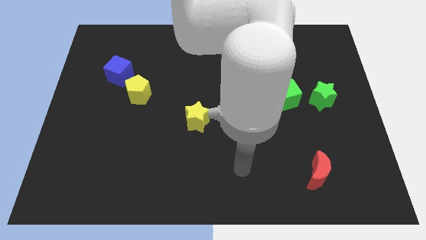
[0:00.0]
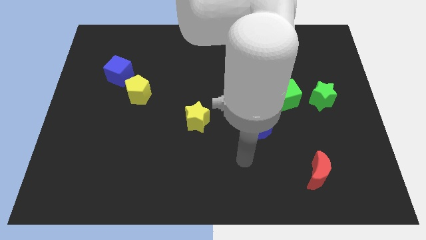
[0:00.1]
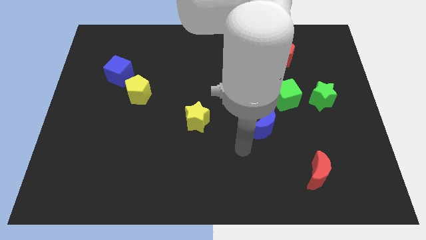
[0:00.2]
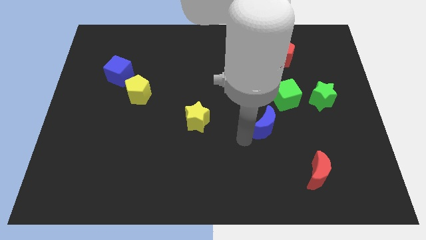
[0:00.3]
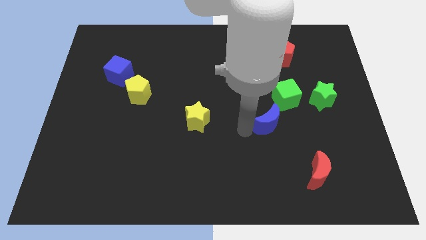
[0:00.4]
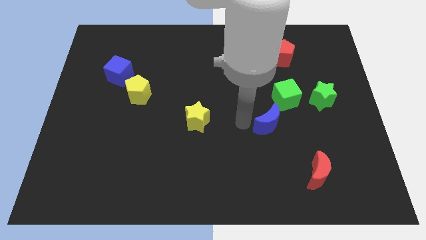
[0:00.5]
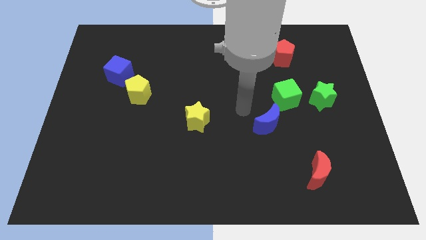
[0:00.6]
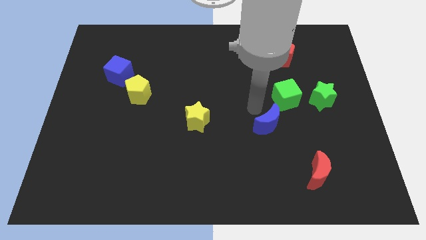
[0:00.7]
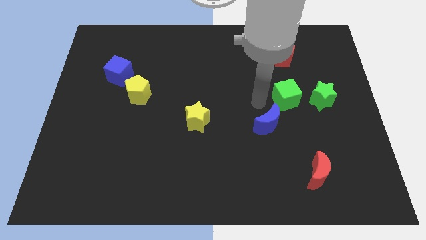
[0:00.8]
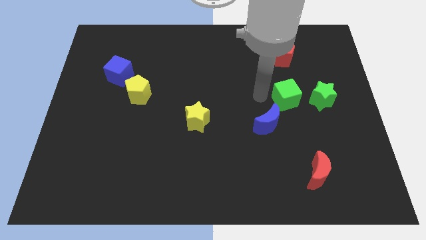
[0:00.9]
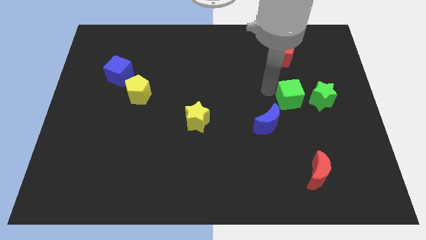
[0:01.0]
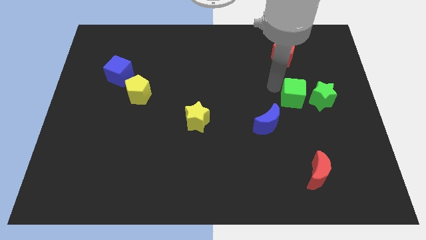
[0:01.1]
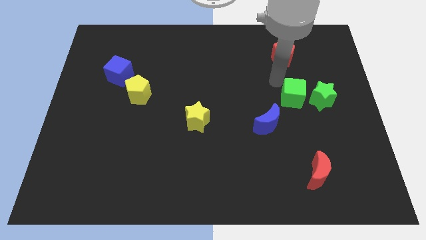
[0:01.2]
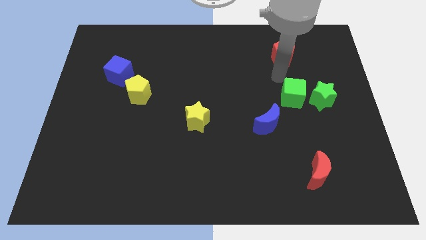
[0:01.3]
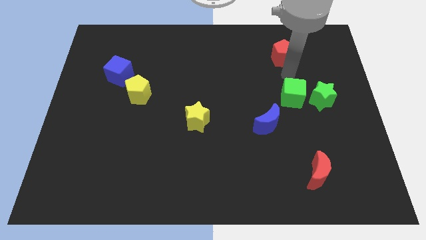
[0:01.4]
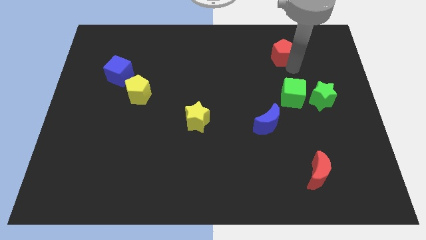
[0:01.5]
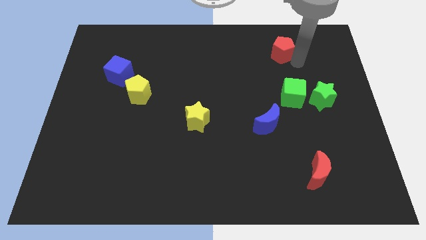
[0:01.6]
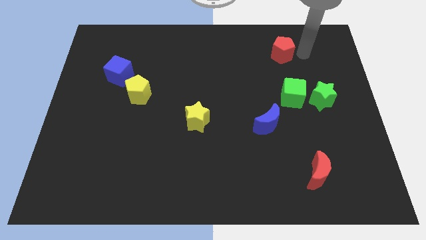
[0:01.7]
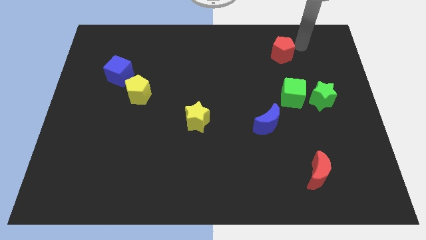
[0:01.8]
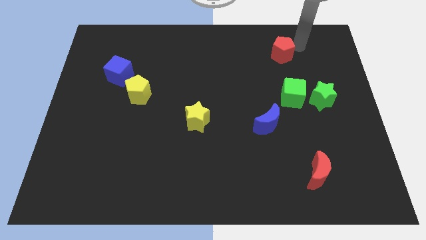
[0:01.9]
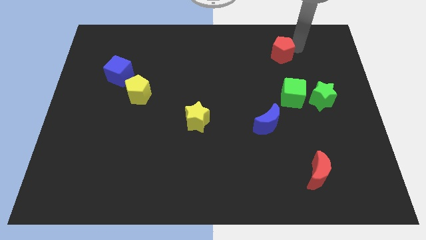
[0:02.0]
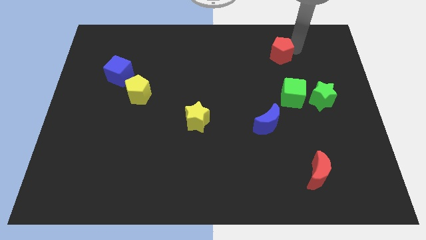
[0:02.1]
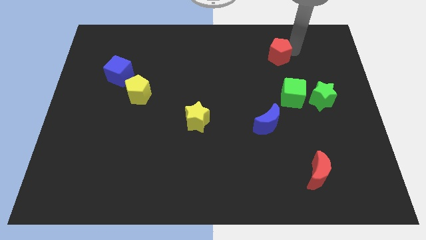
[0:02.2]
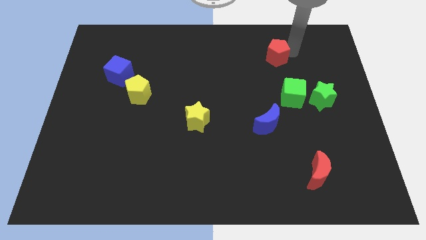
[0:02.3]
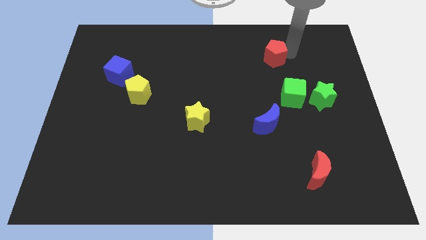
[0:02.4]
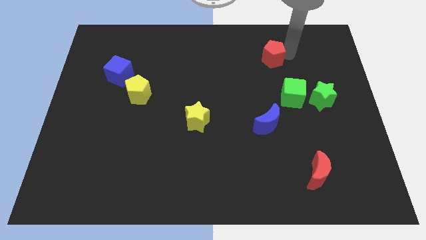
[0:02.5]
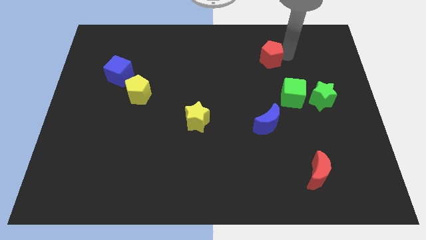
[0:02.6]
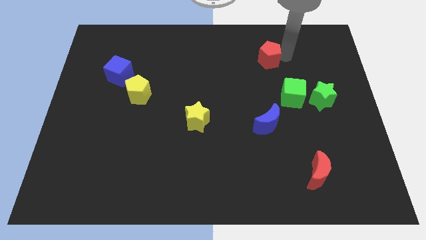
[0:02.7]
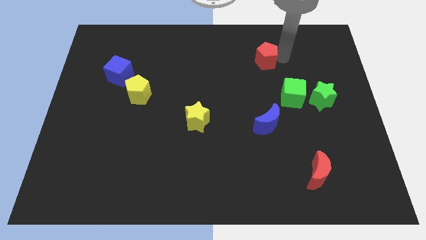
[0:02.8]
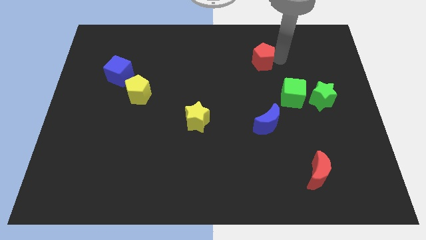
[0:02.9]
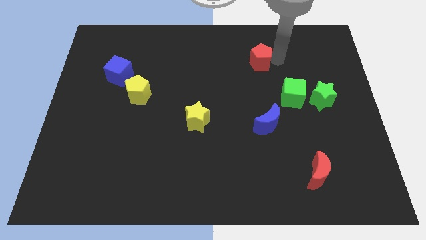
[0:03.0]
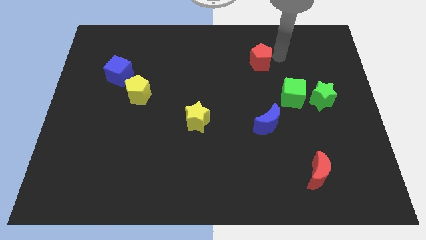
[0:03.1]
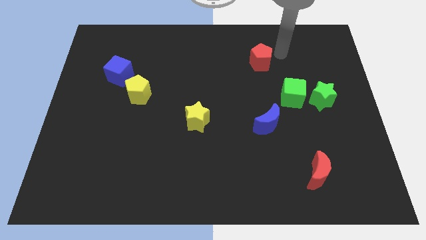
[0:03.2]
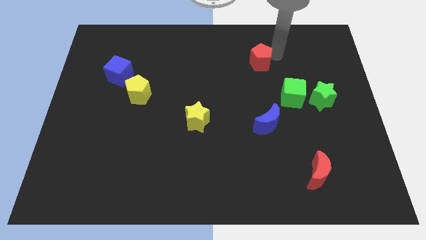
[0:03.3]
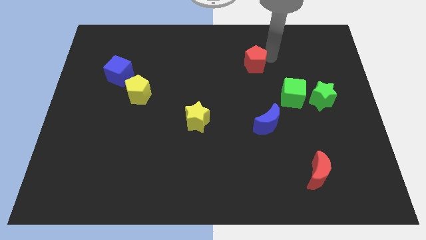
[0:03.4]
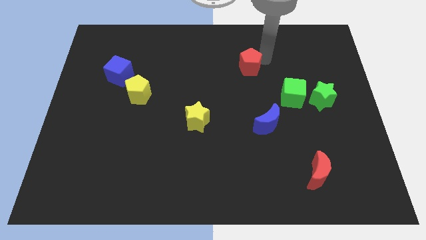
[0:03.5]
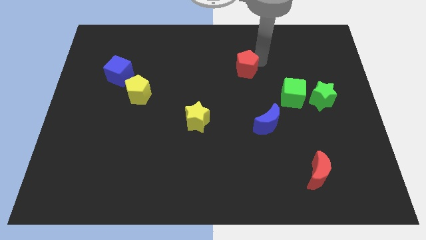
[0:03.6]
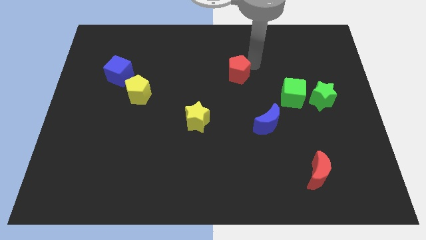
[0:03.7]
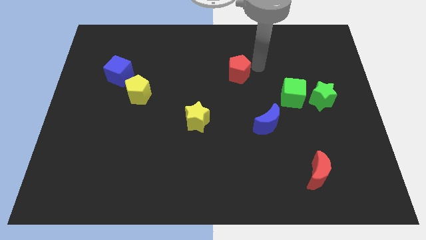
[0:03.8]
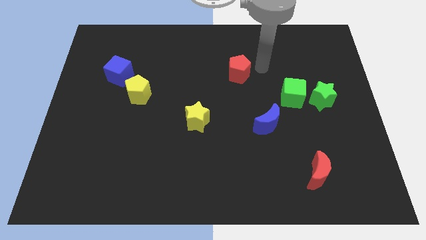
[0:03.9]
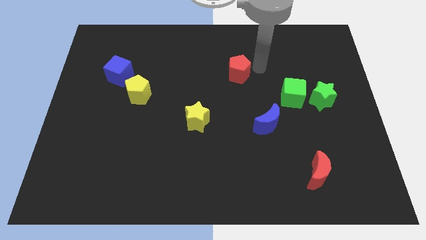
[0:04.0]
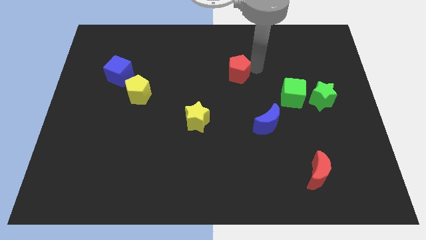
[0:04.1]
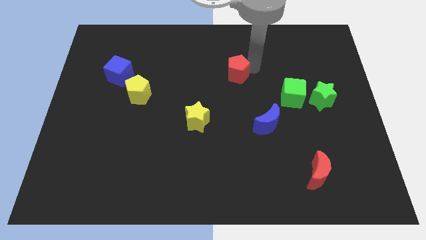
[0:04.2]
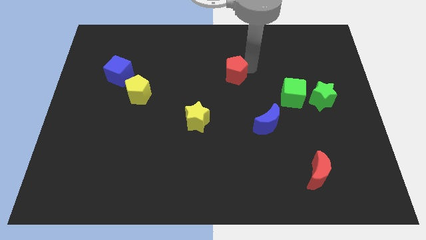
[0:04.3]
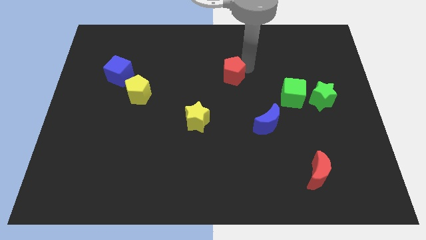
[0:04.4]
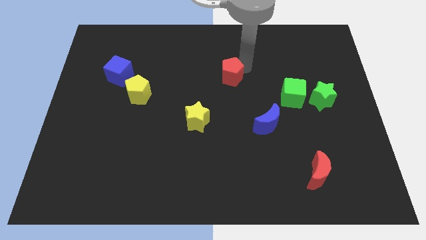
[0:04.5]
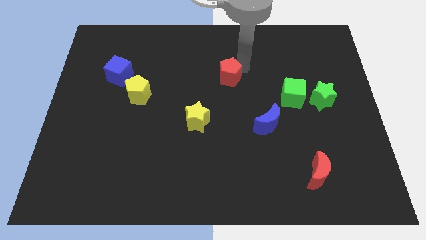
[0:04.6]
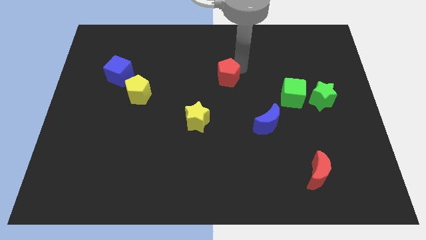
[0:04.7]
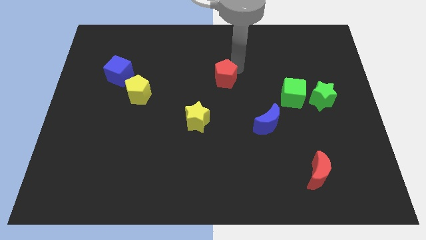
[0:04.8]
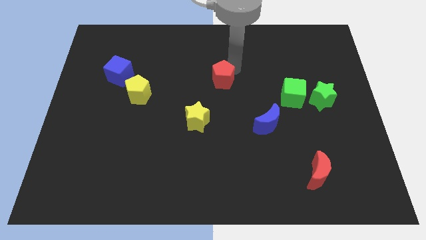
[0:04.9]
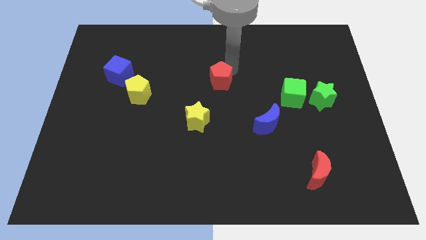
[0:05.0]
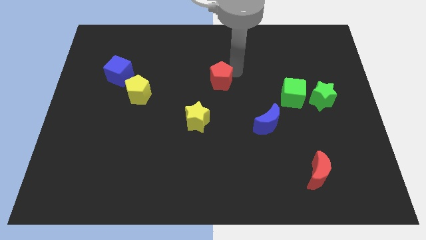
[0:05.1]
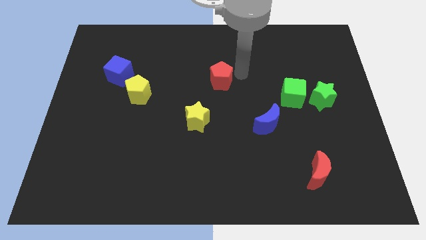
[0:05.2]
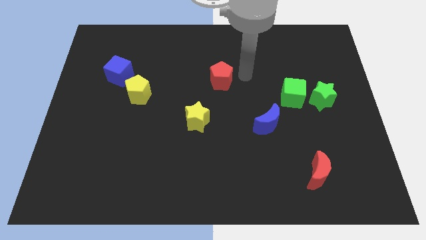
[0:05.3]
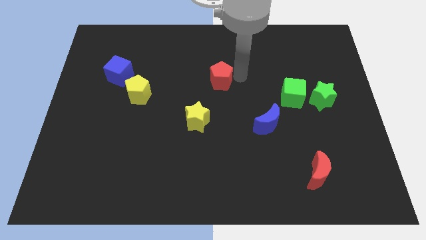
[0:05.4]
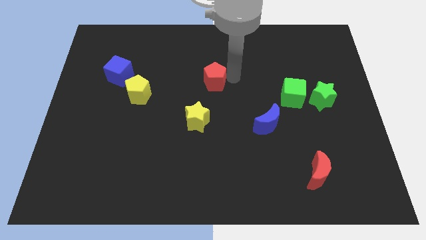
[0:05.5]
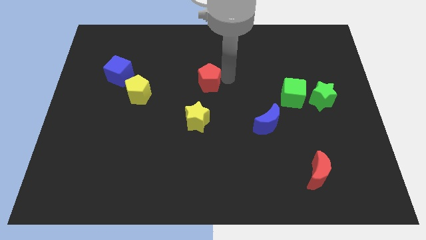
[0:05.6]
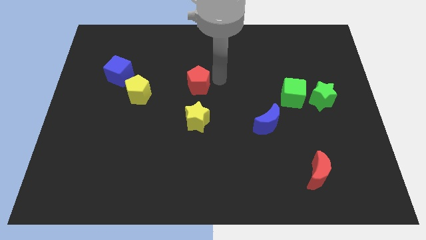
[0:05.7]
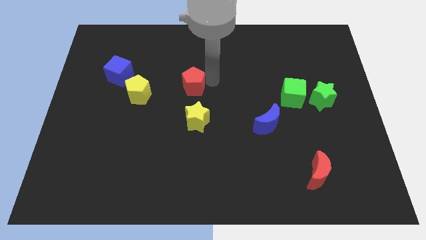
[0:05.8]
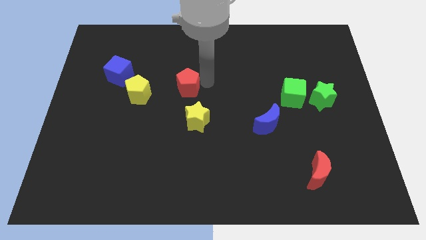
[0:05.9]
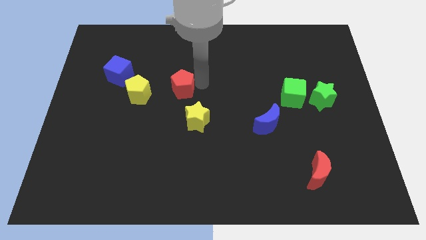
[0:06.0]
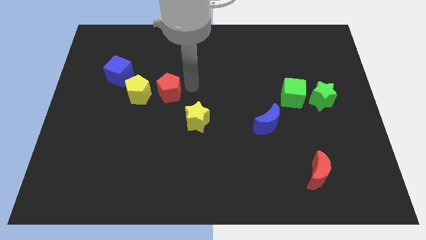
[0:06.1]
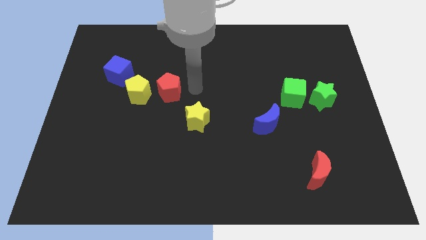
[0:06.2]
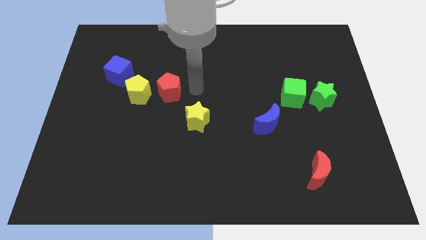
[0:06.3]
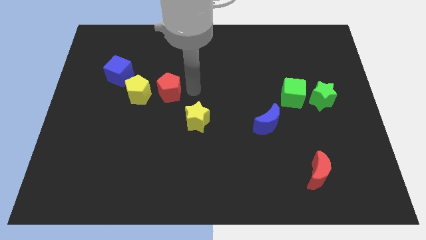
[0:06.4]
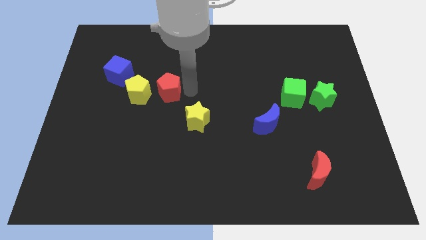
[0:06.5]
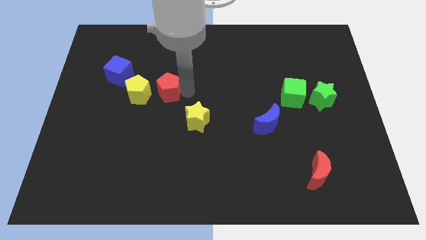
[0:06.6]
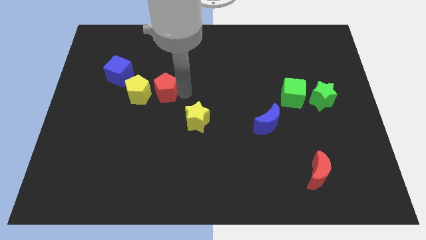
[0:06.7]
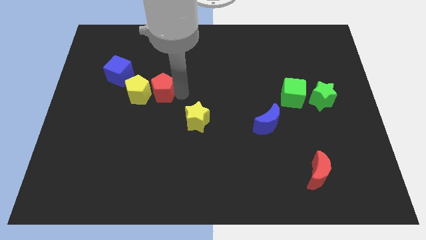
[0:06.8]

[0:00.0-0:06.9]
put the red pentagon to the yellow pentagon
